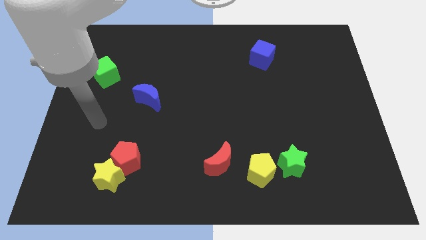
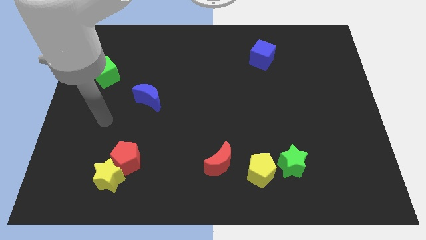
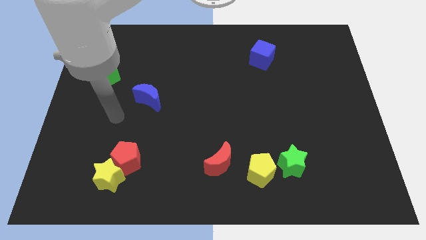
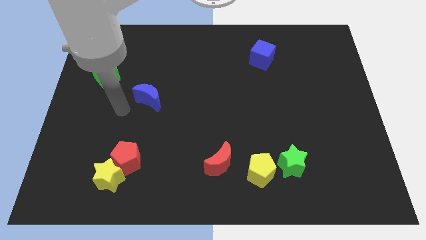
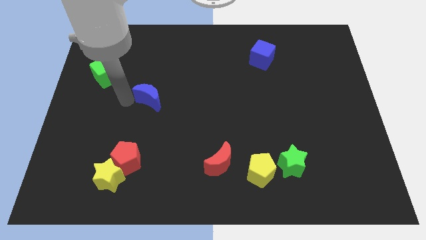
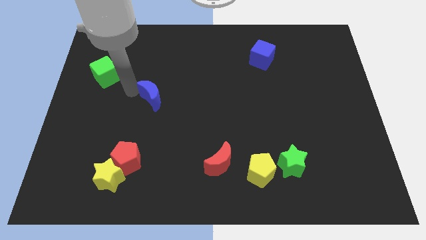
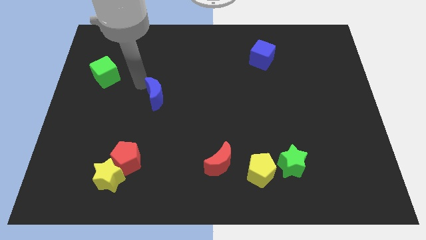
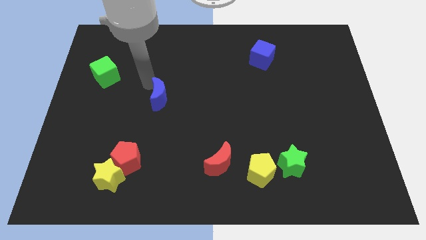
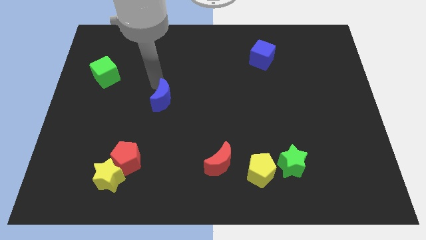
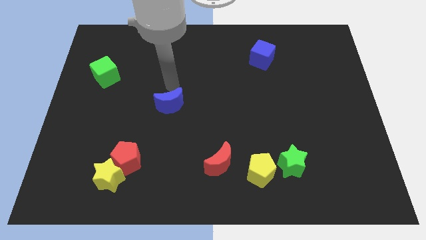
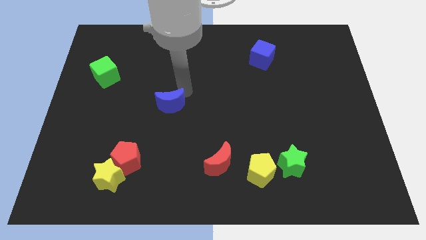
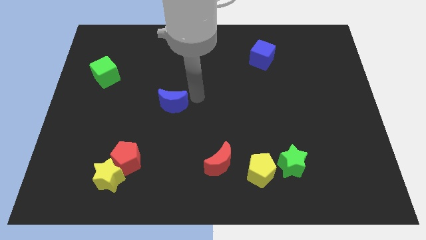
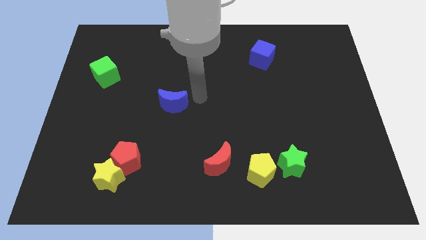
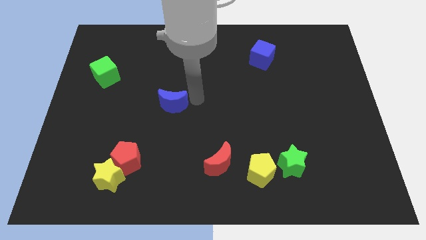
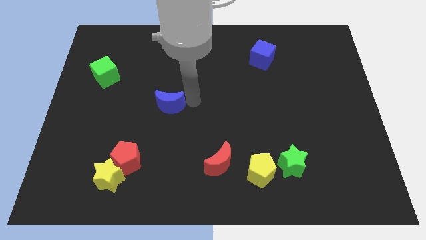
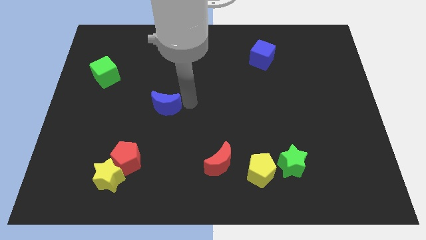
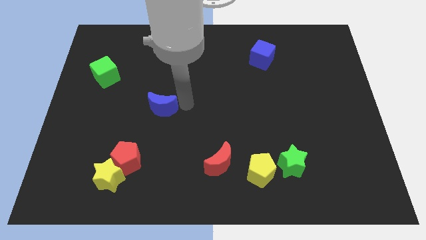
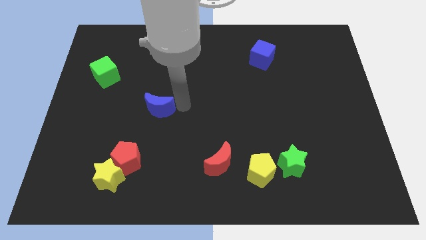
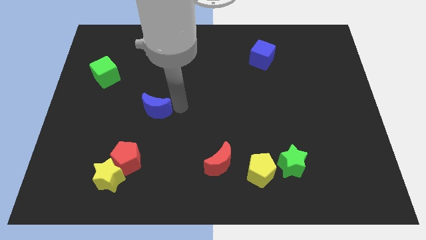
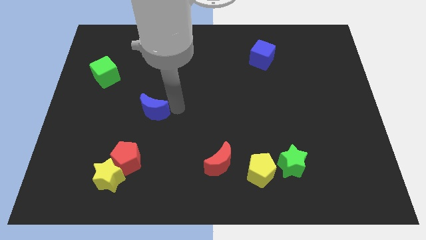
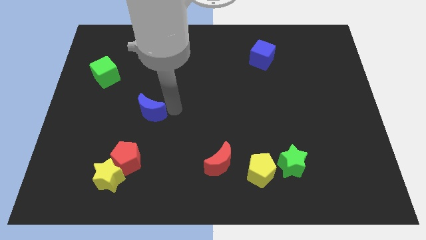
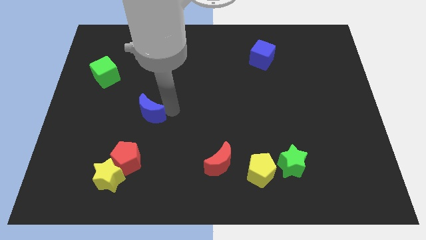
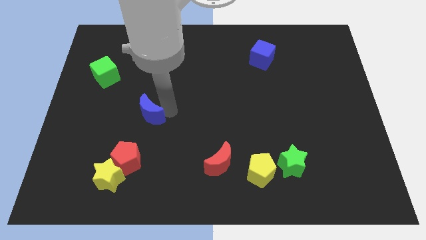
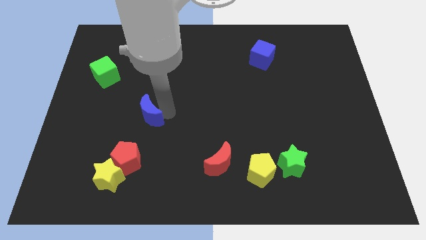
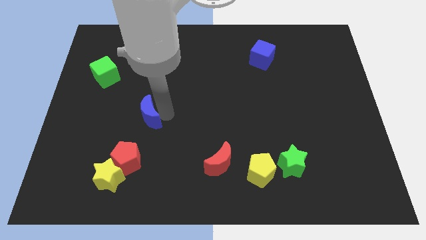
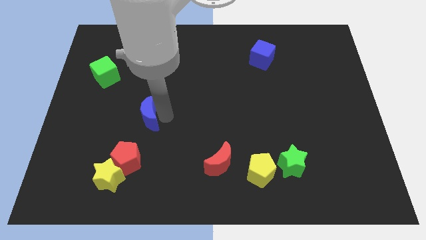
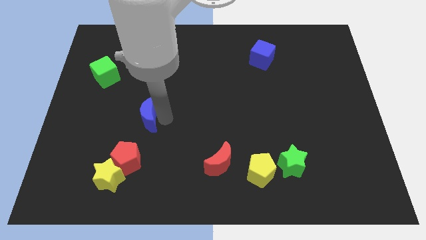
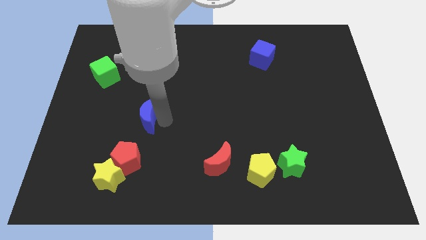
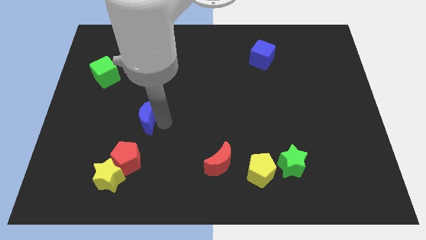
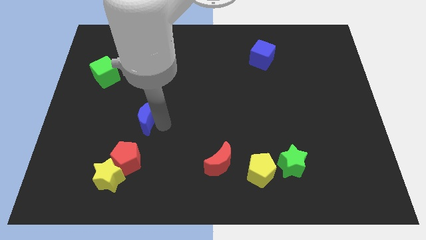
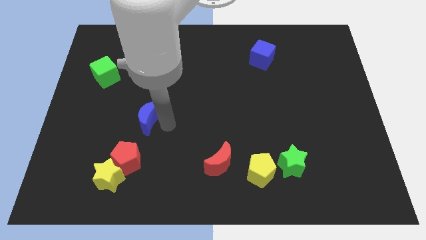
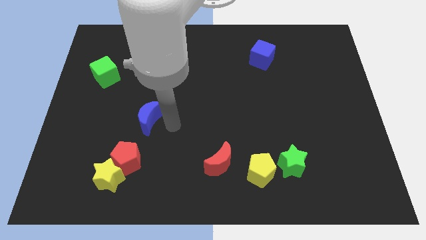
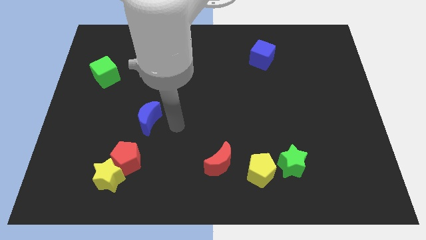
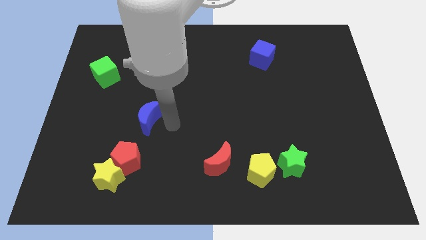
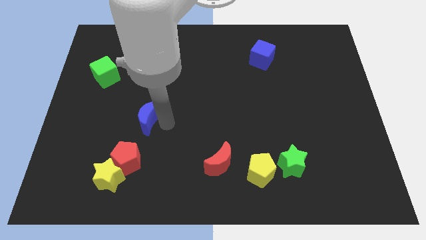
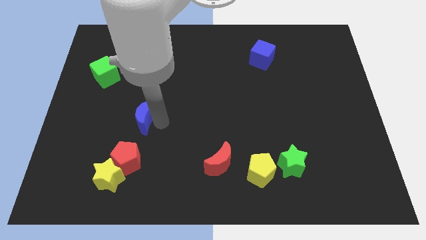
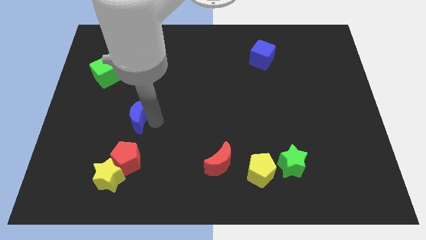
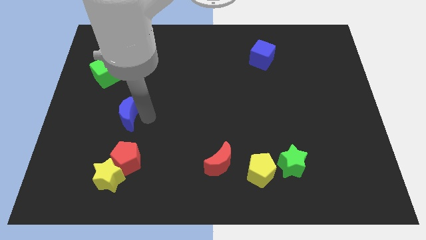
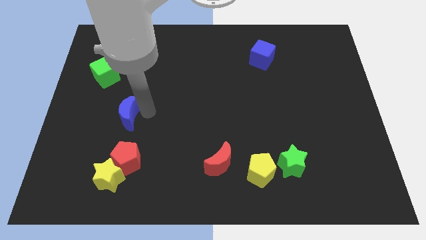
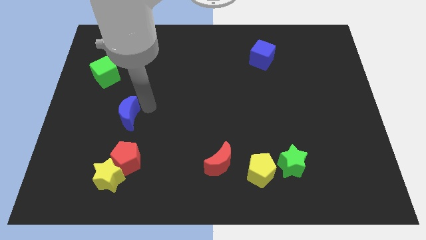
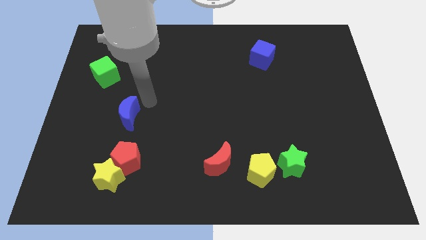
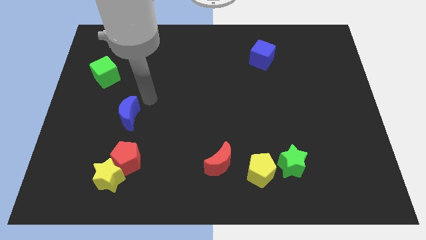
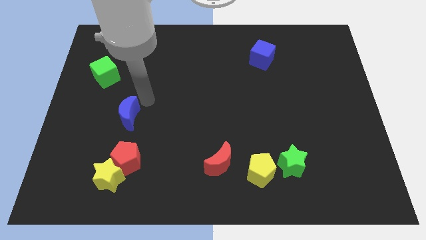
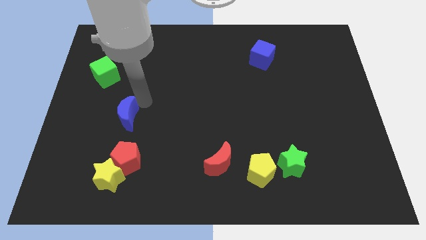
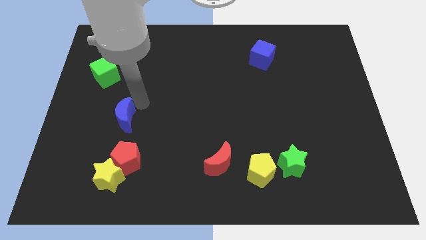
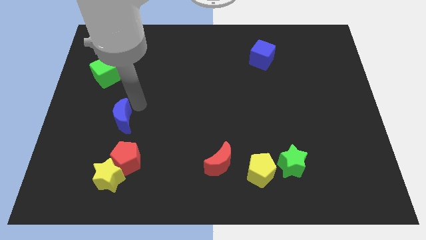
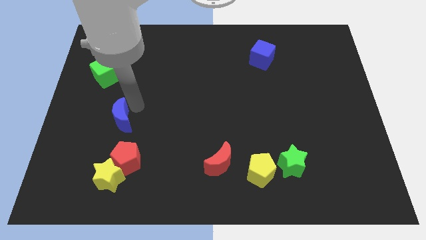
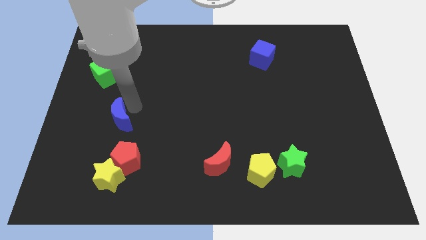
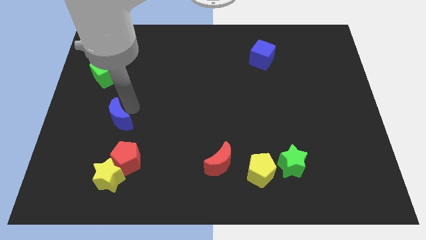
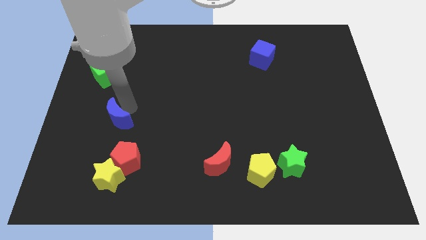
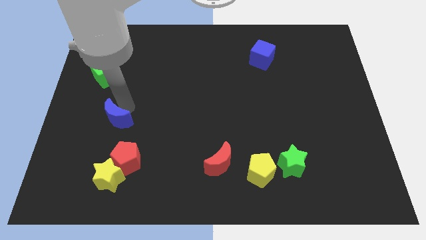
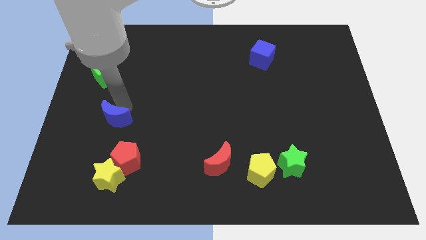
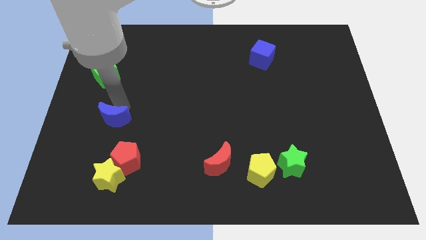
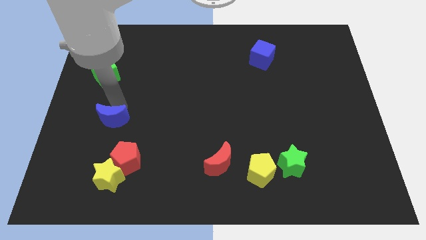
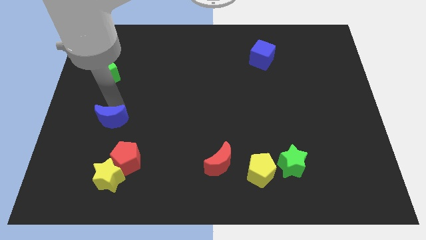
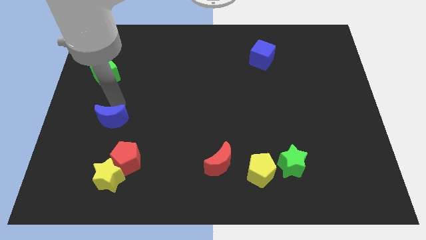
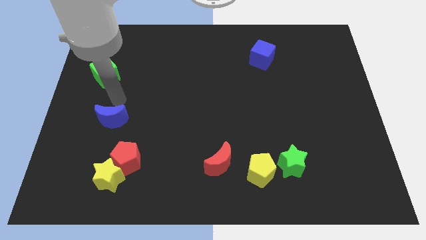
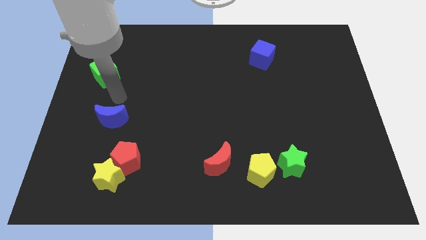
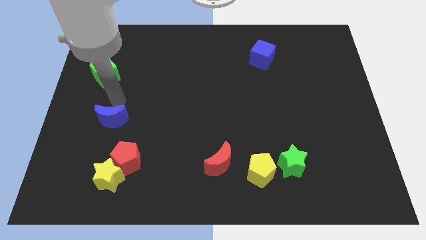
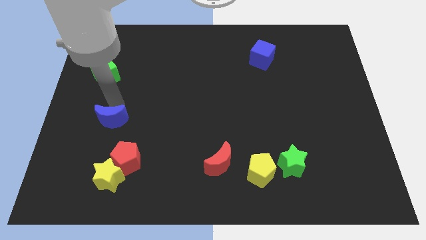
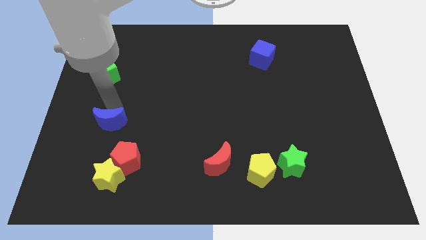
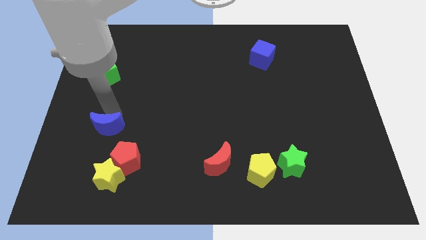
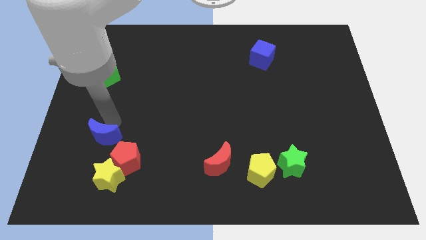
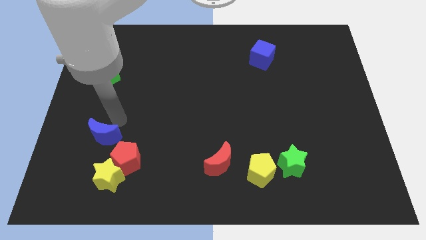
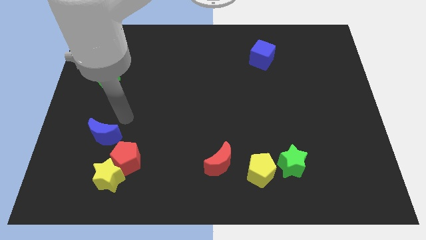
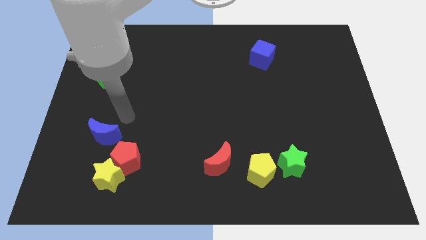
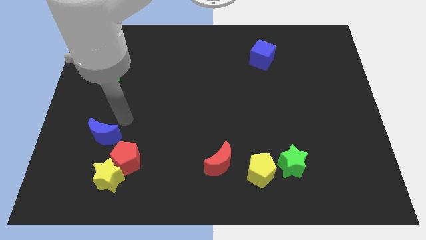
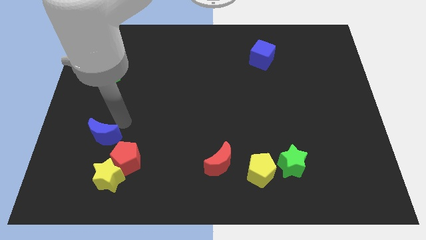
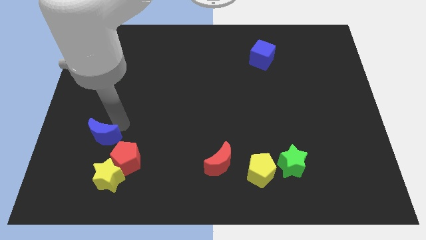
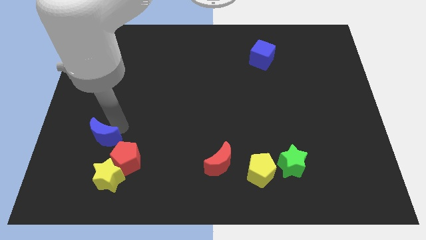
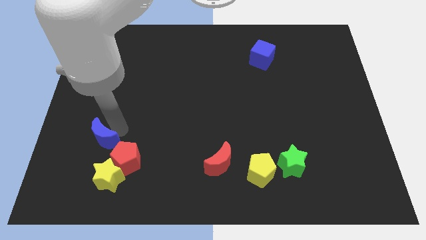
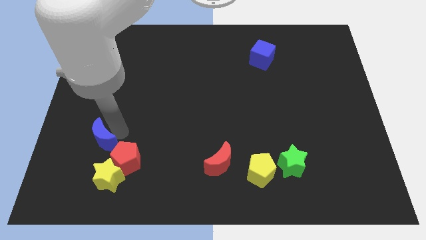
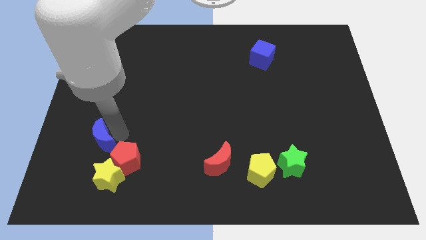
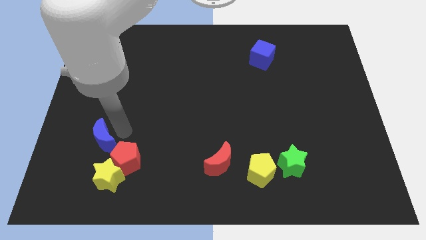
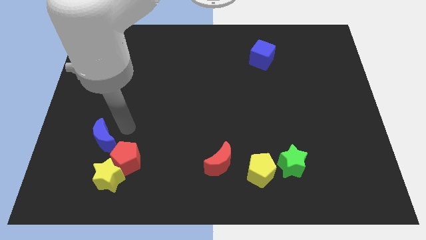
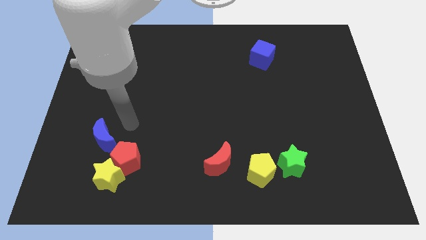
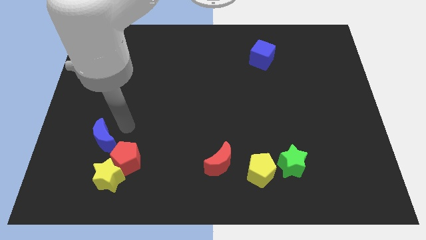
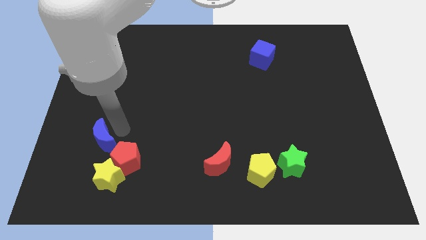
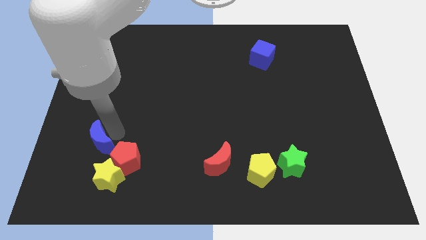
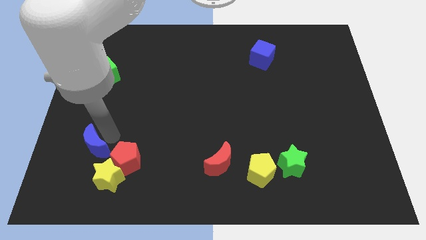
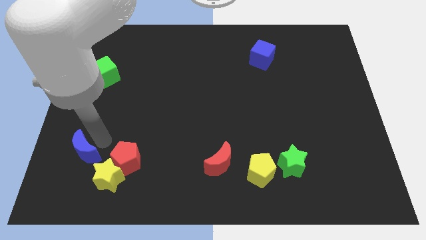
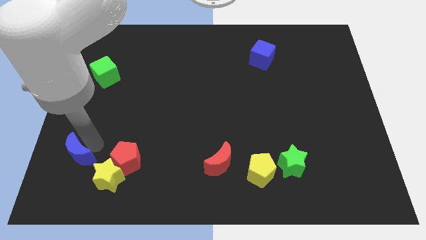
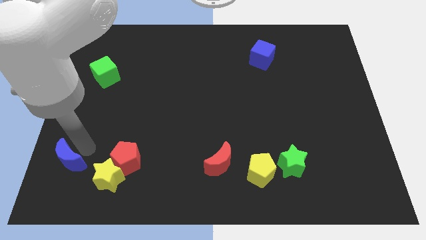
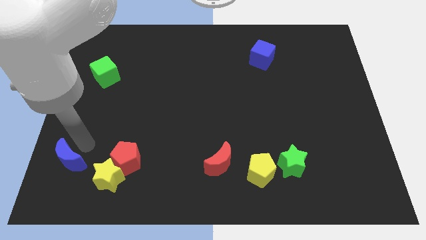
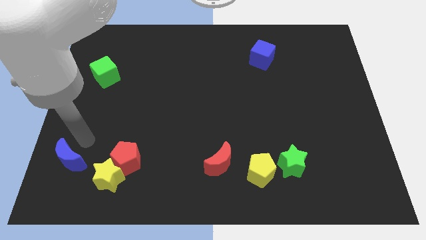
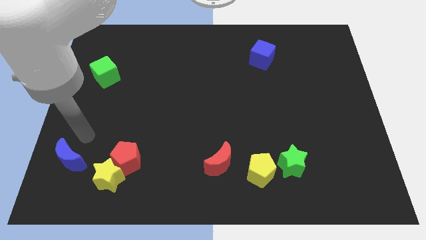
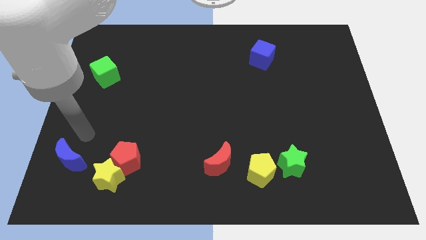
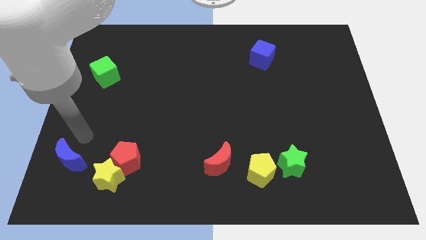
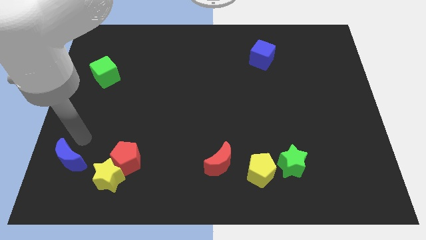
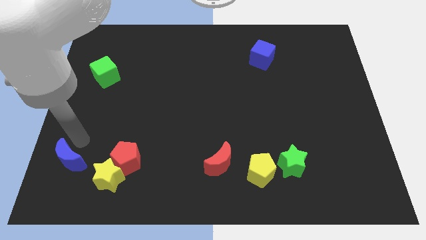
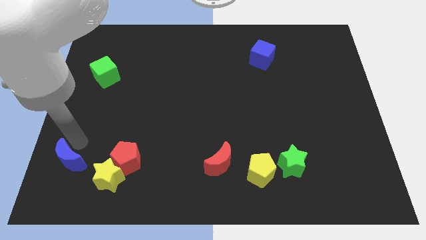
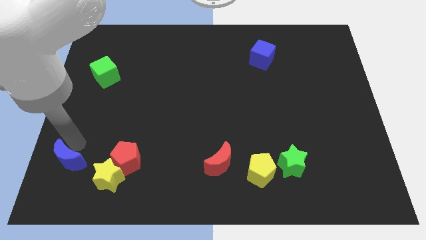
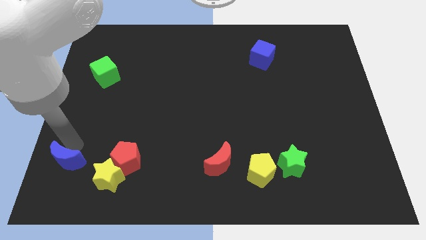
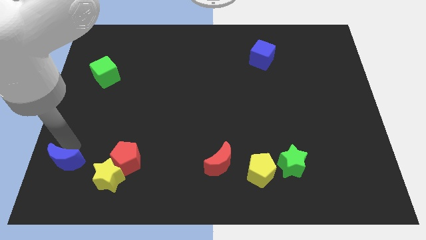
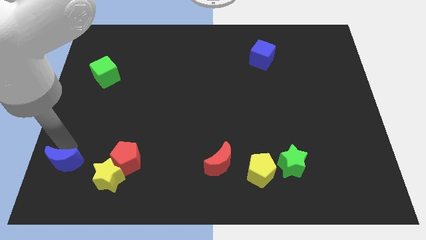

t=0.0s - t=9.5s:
move the blue moon to the bottom left of the board
